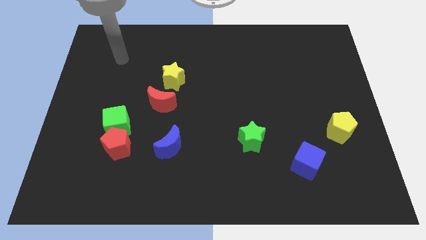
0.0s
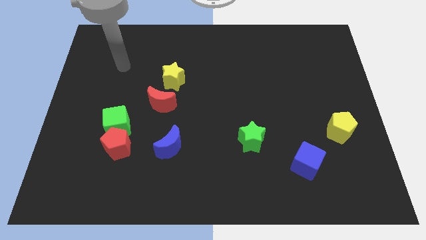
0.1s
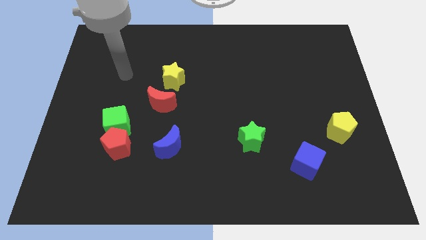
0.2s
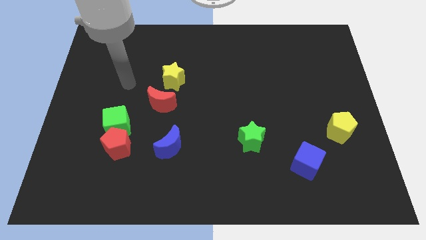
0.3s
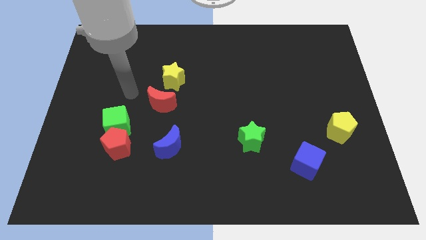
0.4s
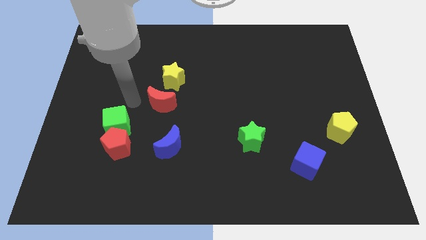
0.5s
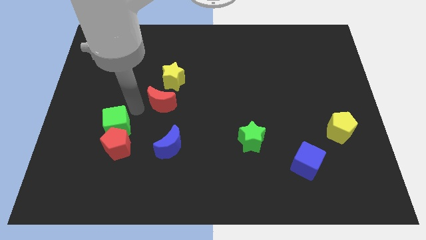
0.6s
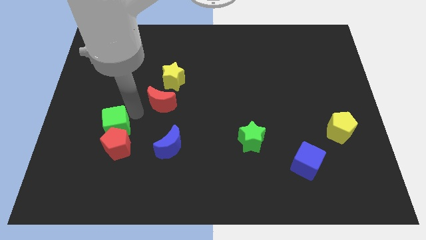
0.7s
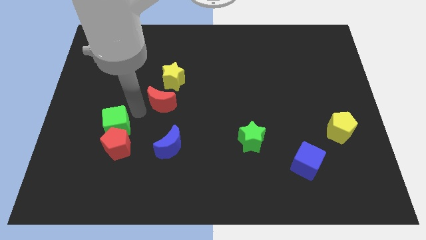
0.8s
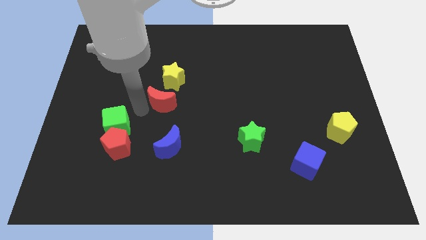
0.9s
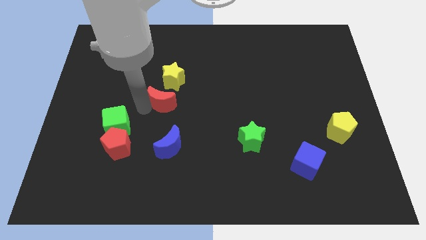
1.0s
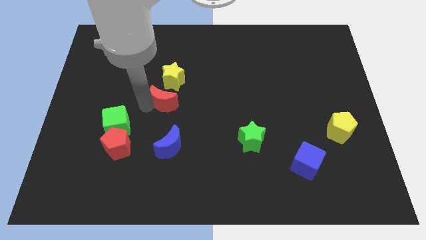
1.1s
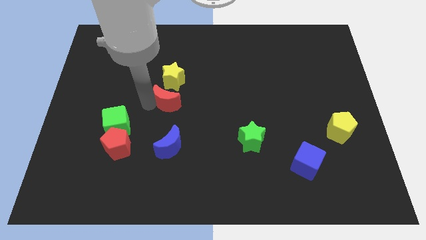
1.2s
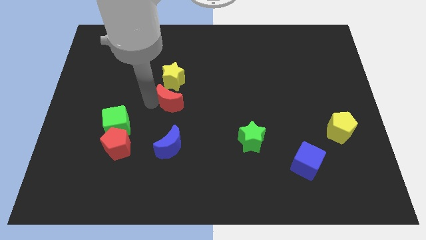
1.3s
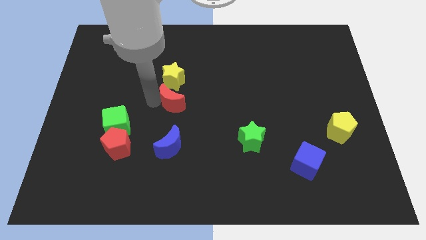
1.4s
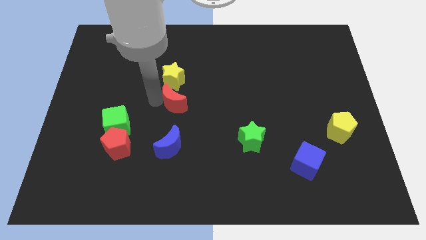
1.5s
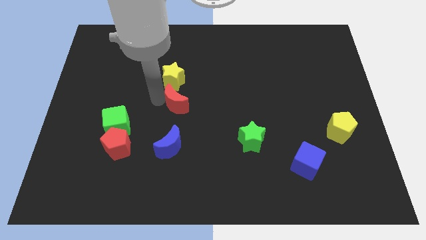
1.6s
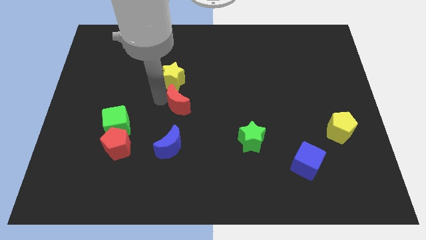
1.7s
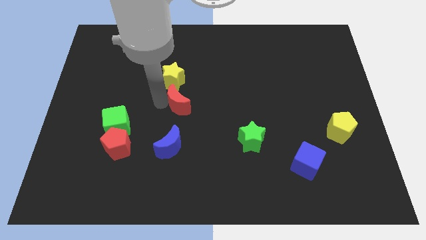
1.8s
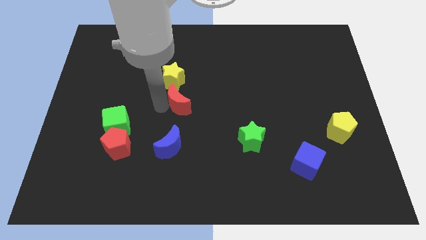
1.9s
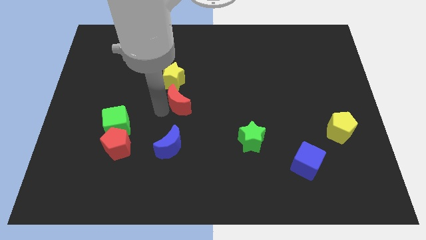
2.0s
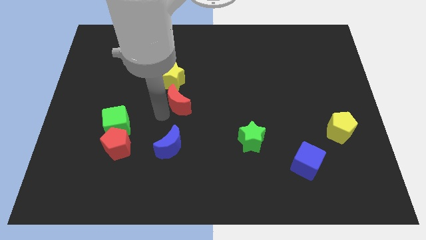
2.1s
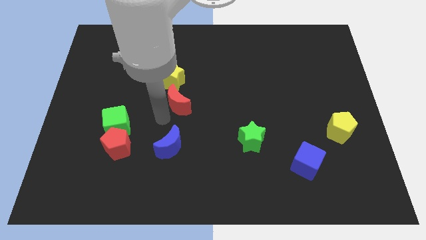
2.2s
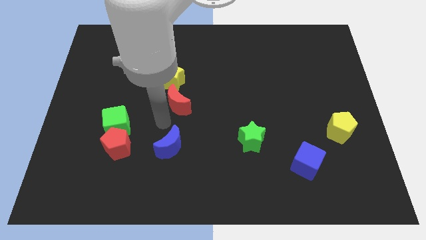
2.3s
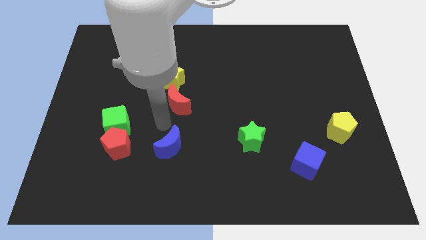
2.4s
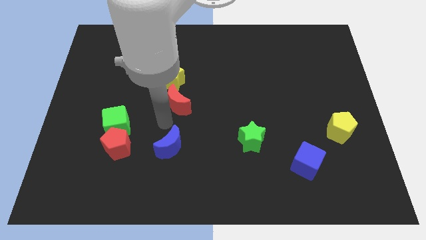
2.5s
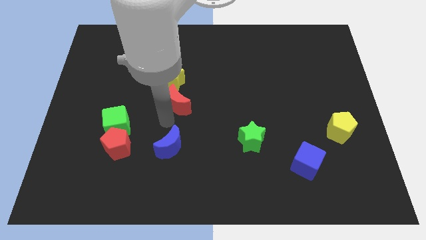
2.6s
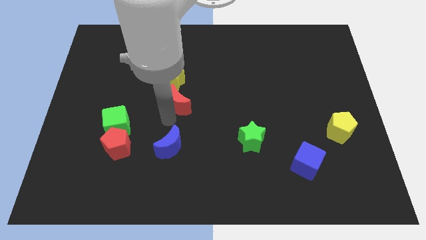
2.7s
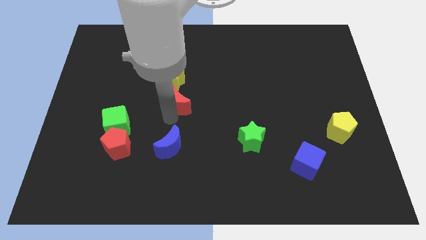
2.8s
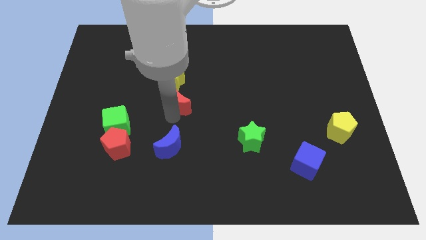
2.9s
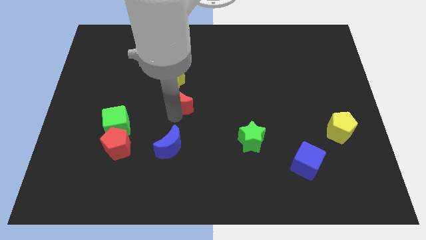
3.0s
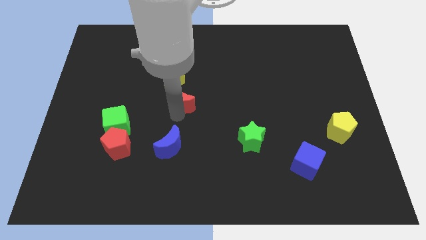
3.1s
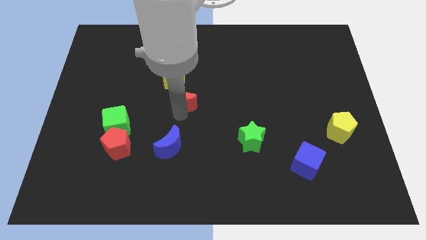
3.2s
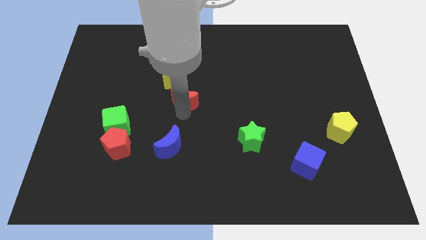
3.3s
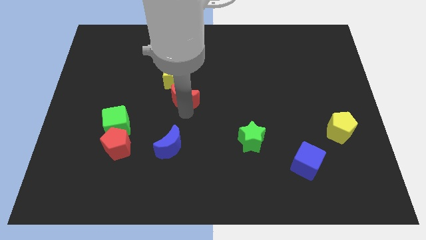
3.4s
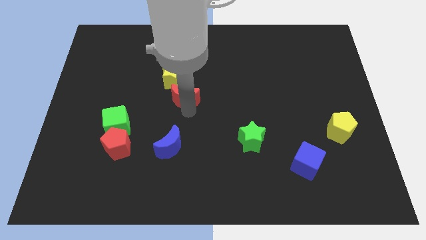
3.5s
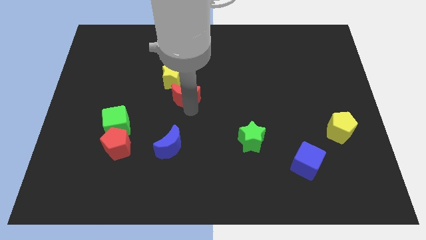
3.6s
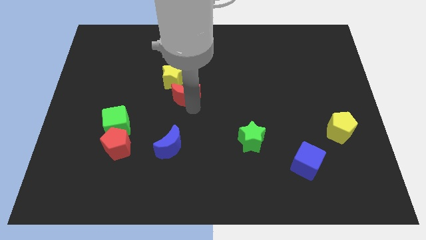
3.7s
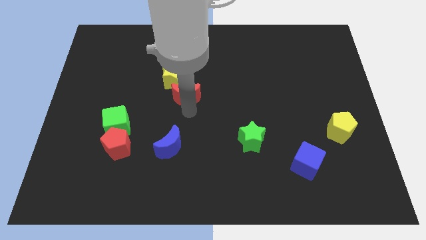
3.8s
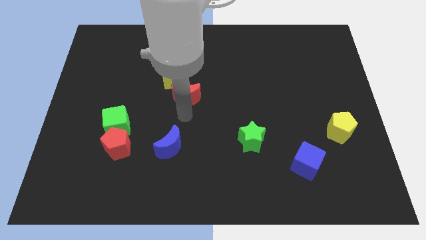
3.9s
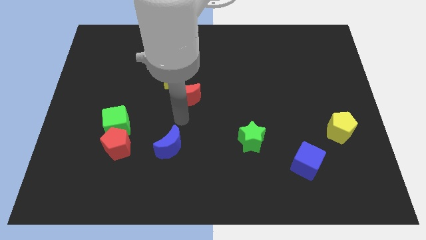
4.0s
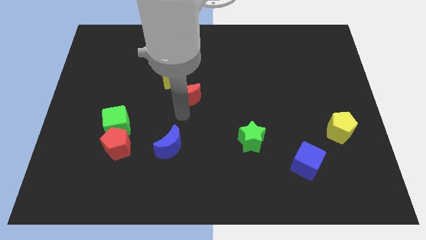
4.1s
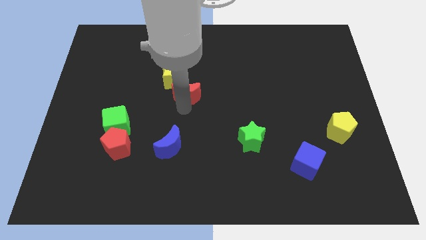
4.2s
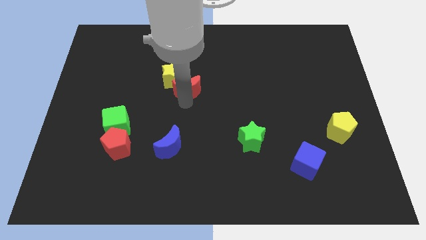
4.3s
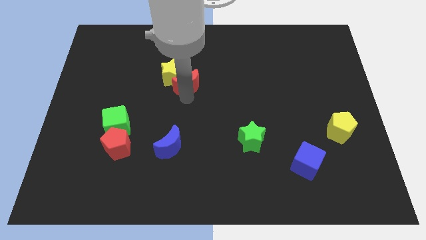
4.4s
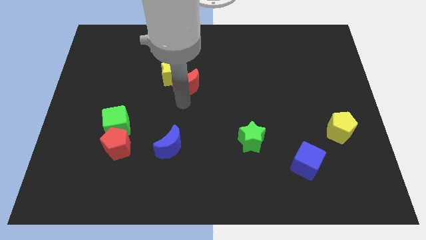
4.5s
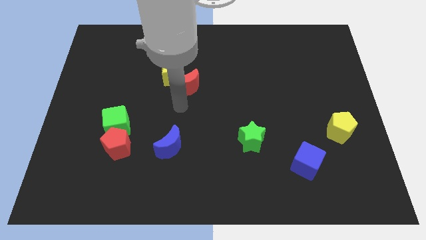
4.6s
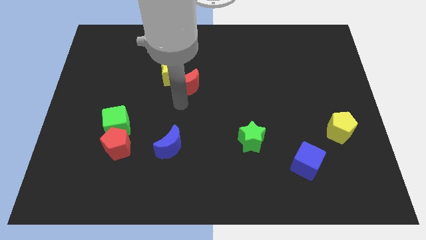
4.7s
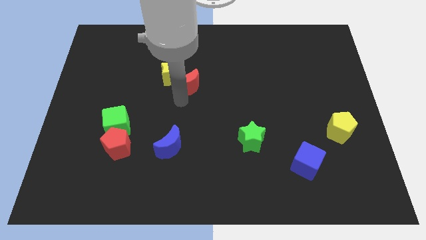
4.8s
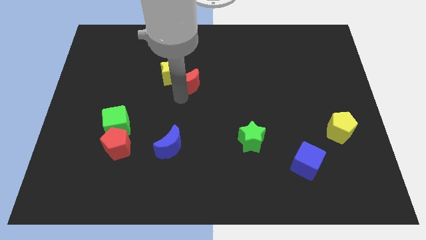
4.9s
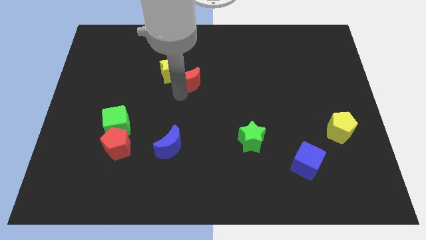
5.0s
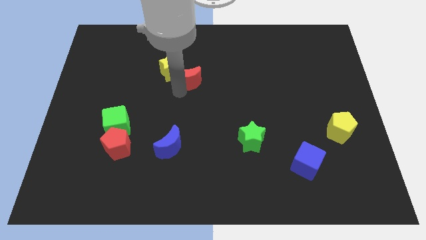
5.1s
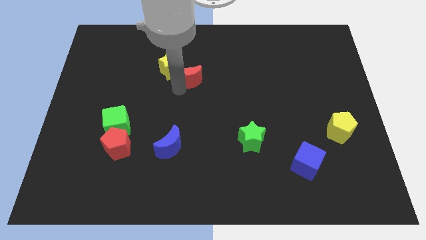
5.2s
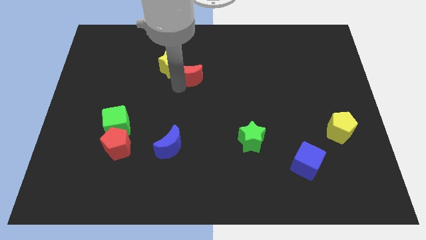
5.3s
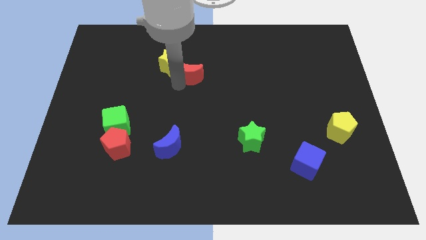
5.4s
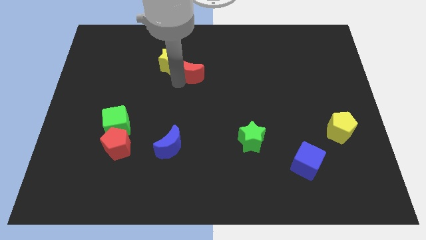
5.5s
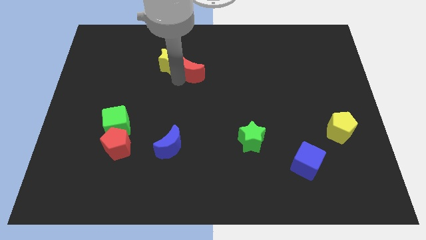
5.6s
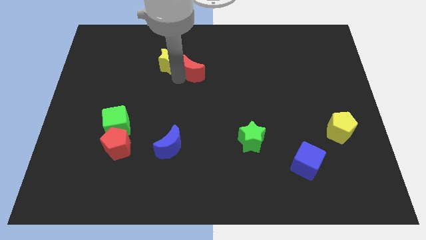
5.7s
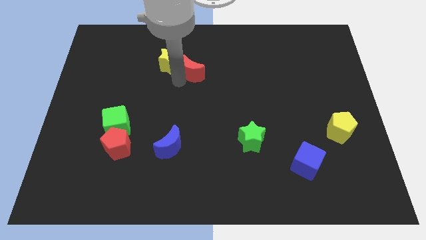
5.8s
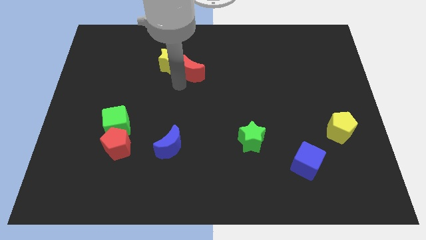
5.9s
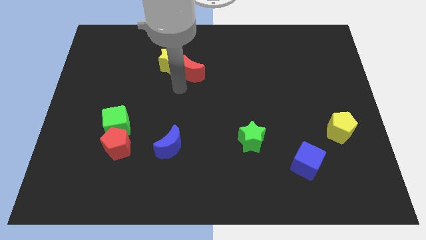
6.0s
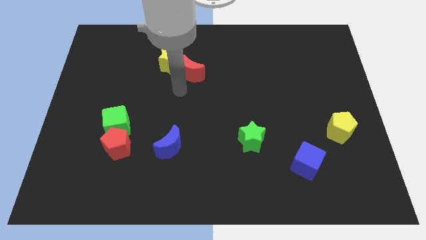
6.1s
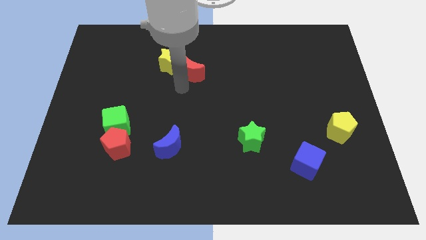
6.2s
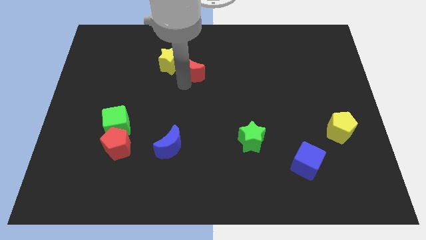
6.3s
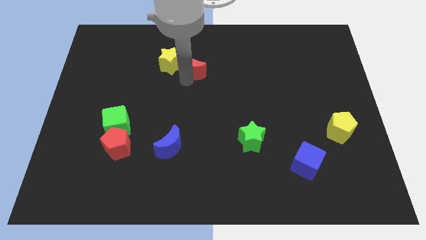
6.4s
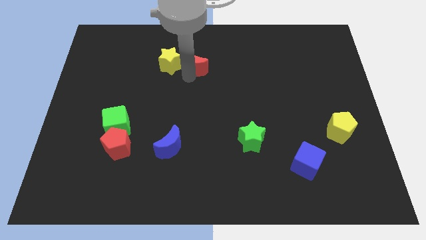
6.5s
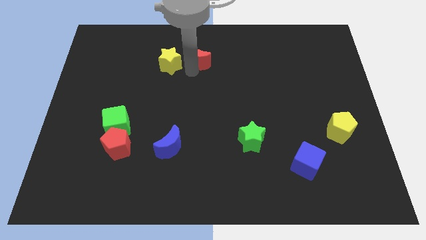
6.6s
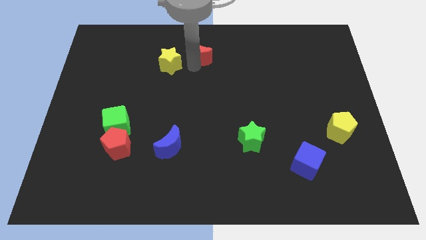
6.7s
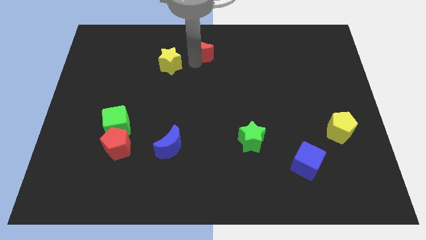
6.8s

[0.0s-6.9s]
push the red moon to the top side
